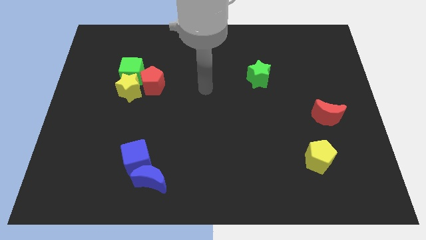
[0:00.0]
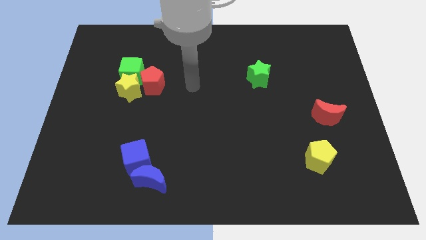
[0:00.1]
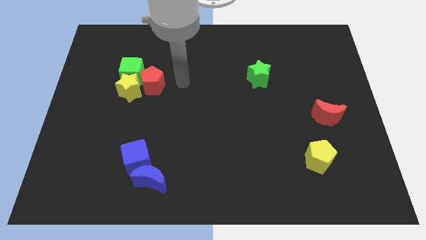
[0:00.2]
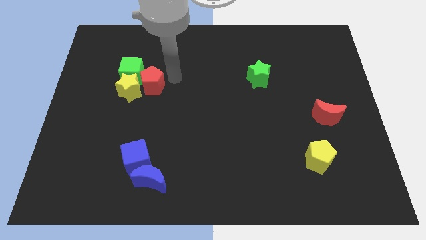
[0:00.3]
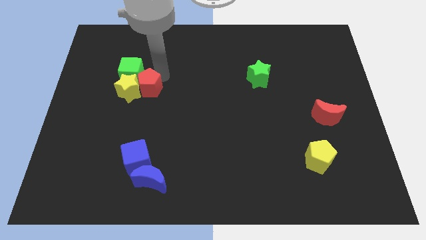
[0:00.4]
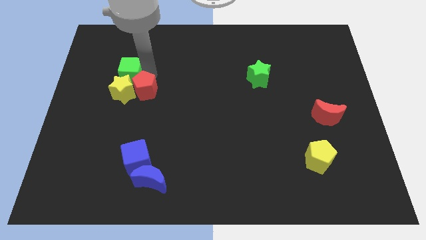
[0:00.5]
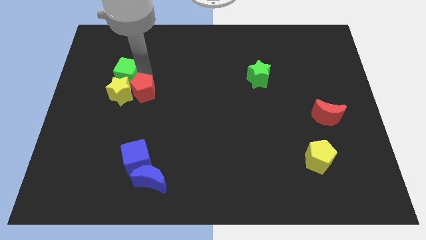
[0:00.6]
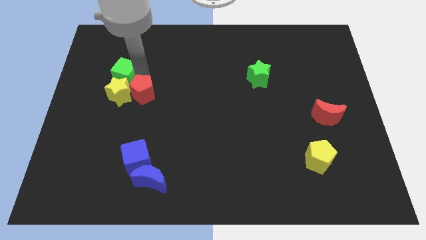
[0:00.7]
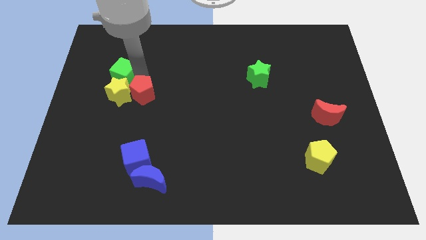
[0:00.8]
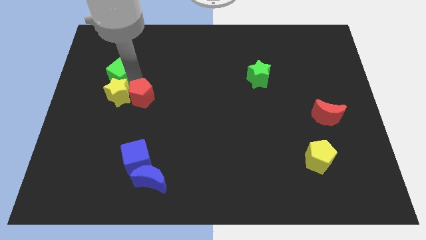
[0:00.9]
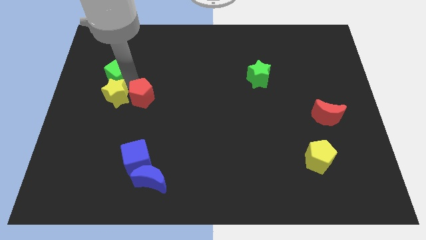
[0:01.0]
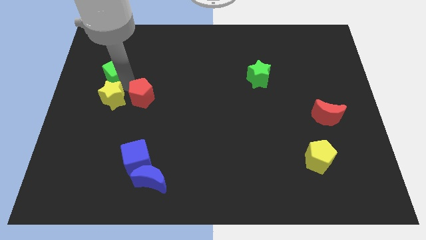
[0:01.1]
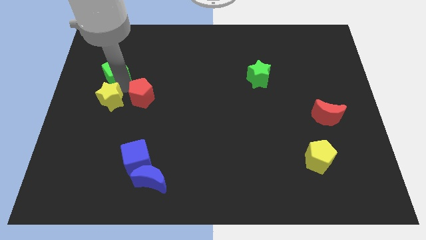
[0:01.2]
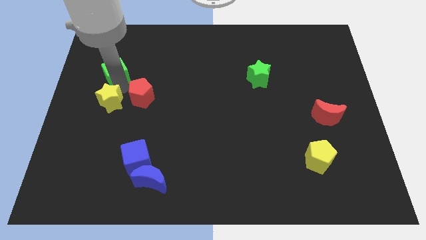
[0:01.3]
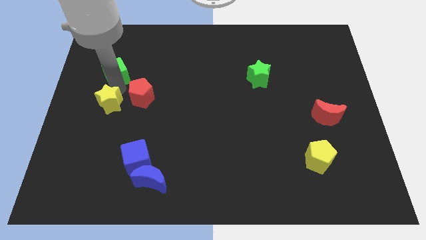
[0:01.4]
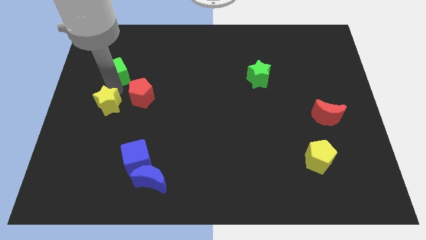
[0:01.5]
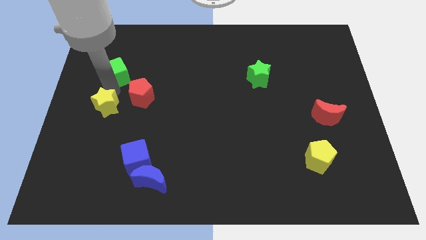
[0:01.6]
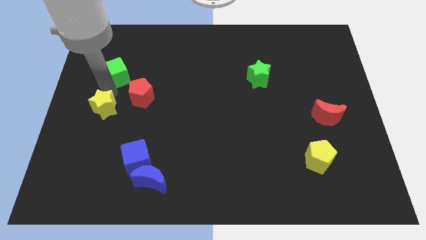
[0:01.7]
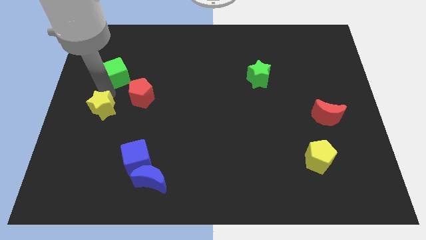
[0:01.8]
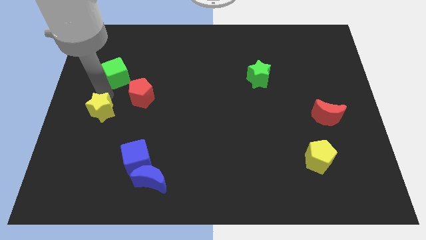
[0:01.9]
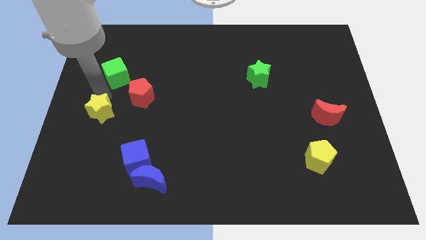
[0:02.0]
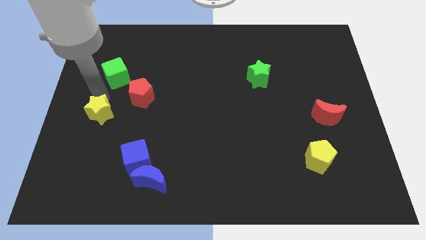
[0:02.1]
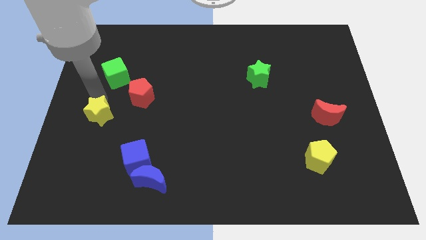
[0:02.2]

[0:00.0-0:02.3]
move the yellow star away from the green cube and red pentagon

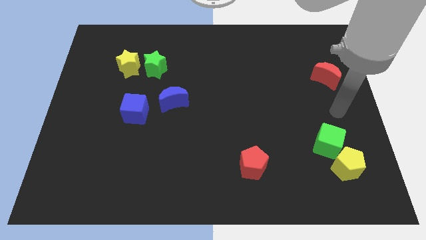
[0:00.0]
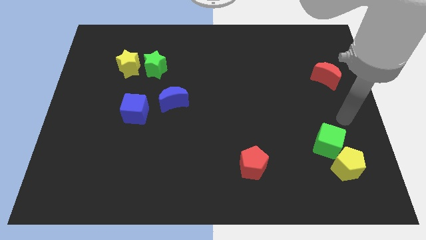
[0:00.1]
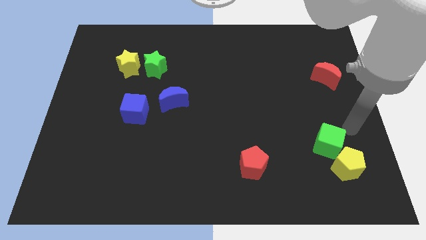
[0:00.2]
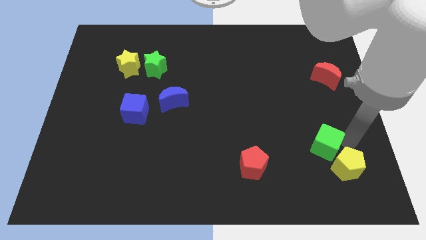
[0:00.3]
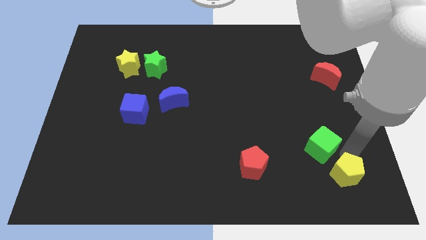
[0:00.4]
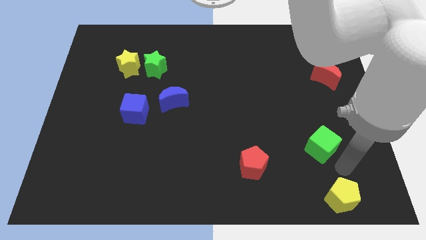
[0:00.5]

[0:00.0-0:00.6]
pull the green cube apart from the yellow pentagon

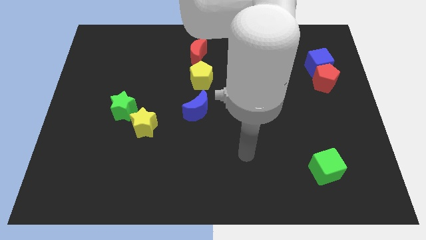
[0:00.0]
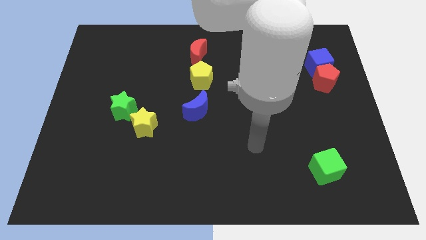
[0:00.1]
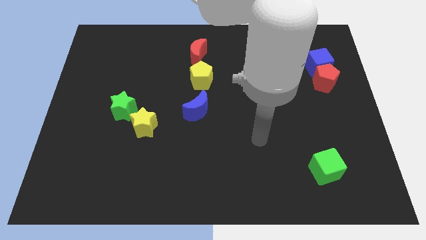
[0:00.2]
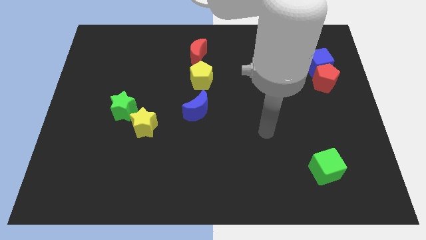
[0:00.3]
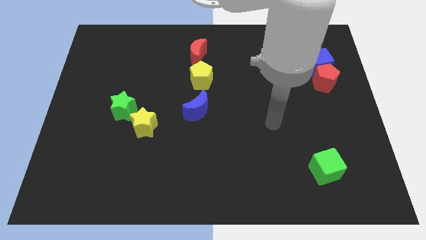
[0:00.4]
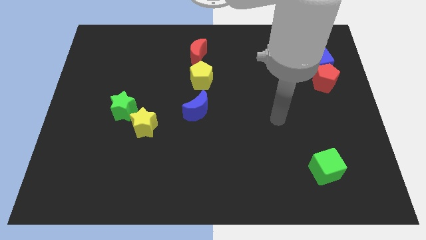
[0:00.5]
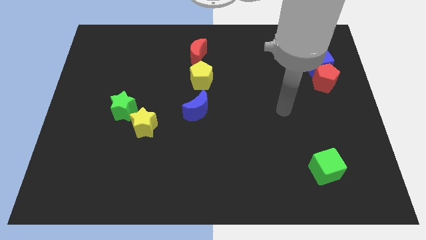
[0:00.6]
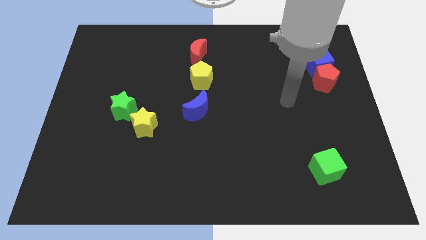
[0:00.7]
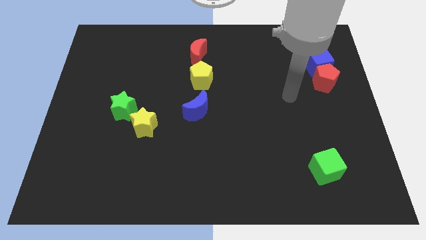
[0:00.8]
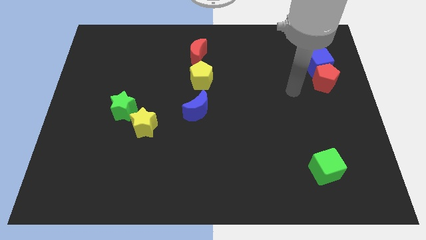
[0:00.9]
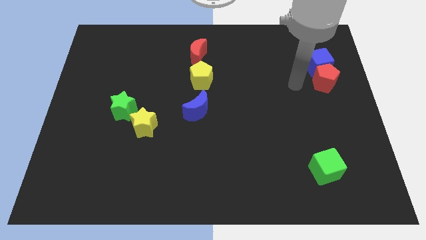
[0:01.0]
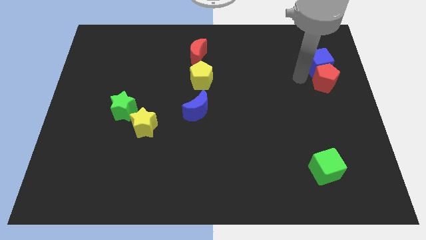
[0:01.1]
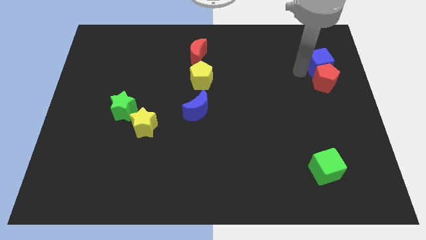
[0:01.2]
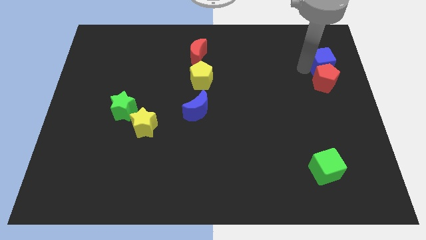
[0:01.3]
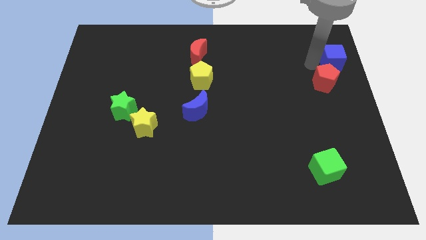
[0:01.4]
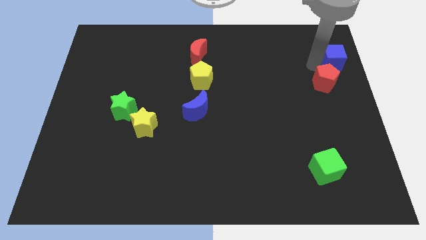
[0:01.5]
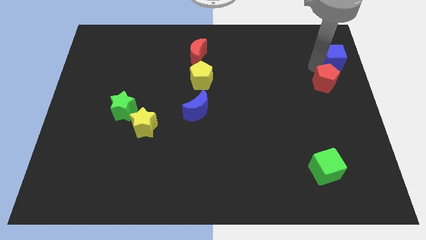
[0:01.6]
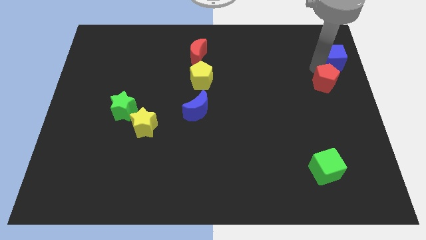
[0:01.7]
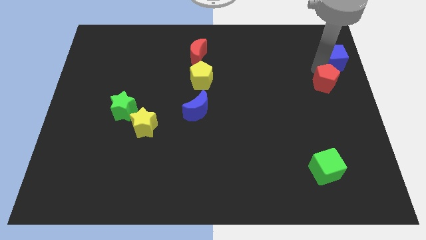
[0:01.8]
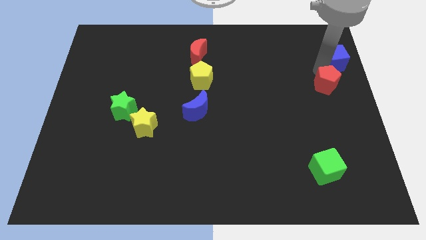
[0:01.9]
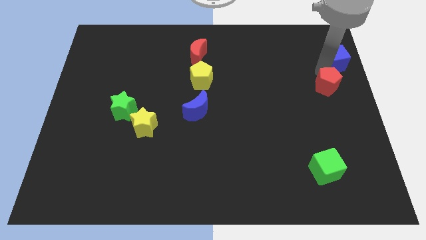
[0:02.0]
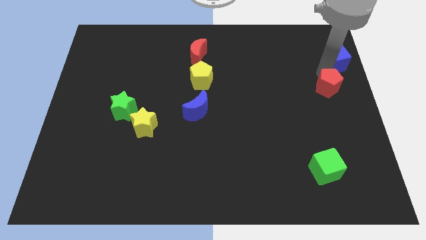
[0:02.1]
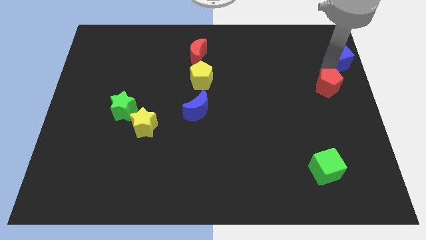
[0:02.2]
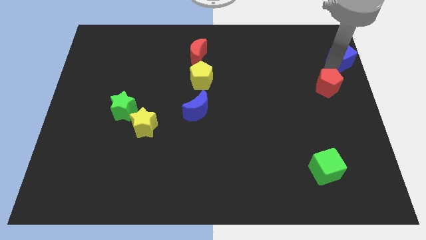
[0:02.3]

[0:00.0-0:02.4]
move the red pentagon away from the blue cube

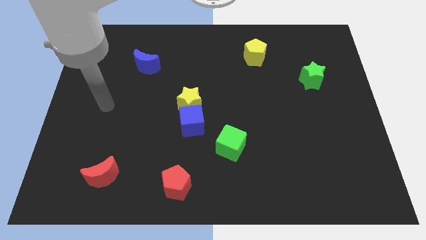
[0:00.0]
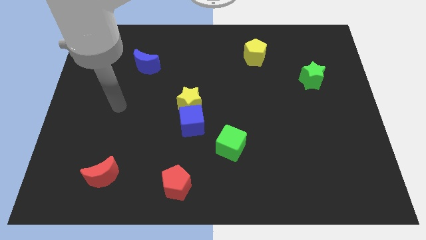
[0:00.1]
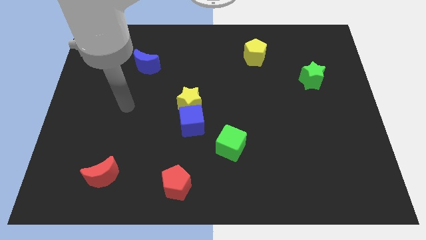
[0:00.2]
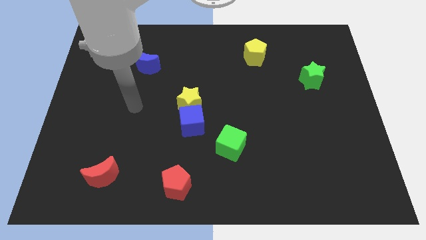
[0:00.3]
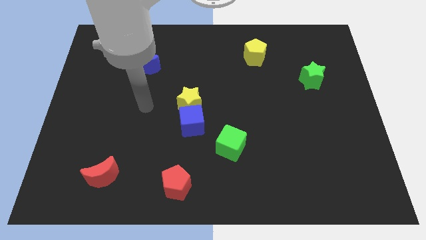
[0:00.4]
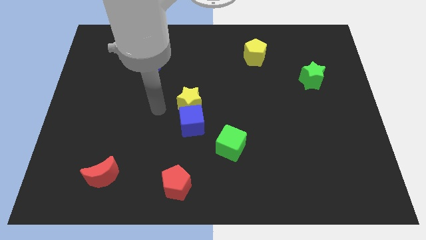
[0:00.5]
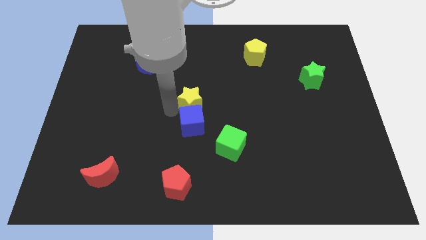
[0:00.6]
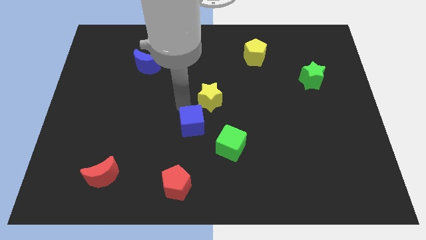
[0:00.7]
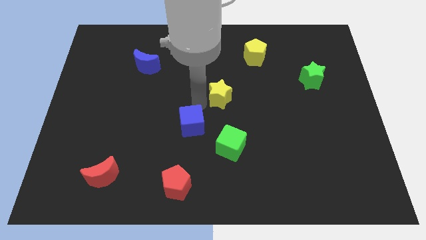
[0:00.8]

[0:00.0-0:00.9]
pull the blue cube apart from the yellow star

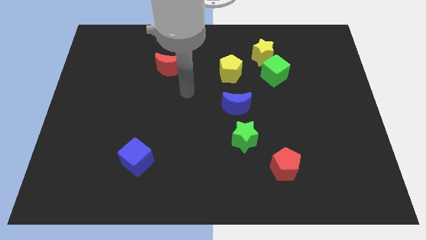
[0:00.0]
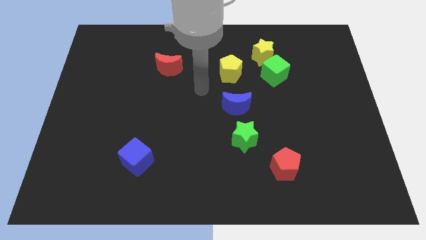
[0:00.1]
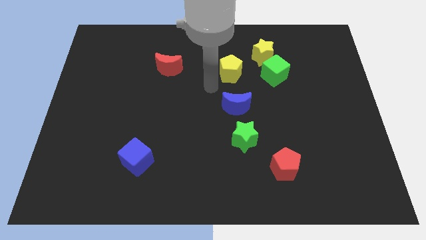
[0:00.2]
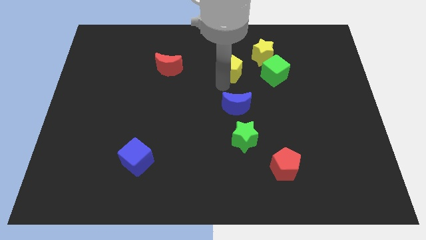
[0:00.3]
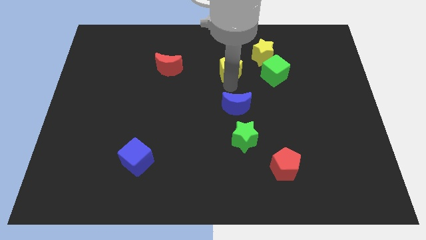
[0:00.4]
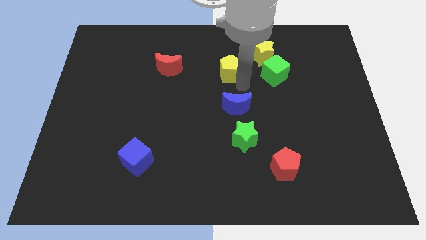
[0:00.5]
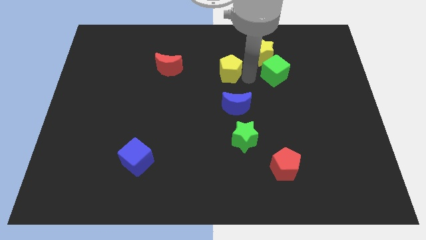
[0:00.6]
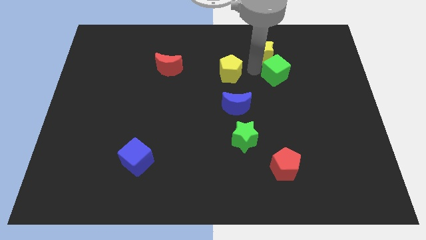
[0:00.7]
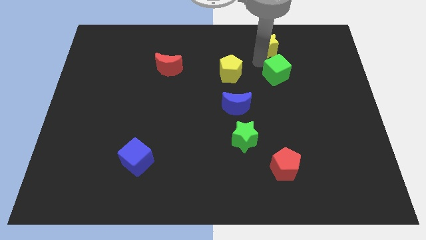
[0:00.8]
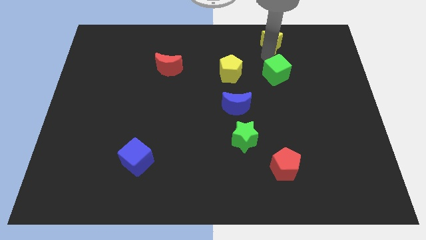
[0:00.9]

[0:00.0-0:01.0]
move the green cube away from the yellow star

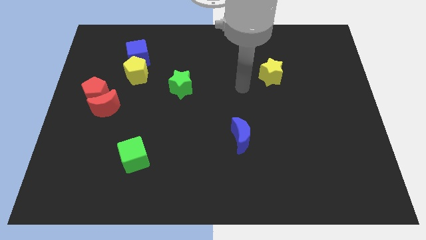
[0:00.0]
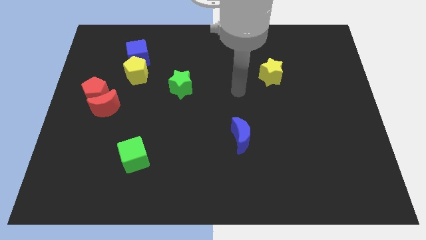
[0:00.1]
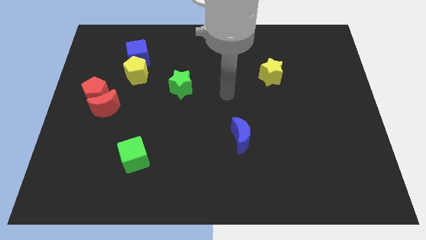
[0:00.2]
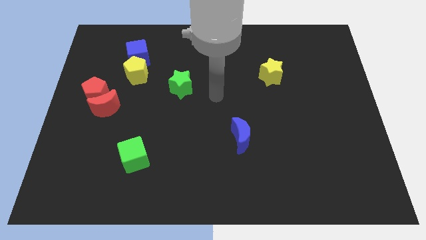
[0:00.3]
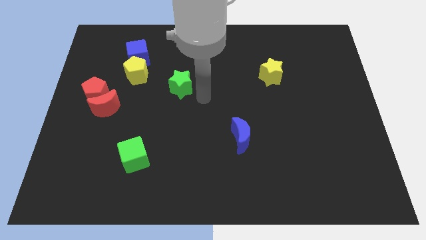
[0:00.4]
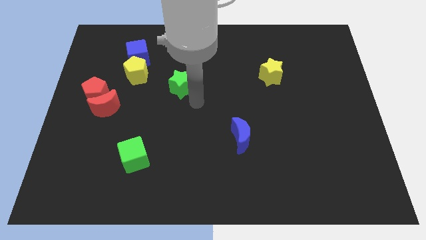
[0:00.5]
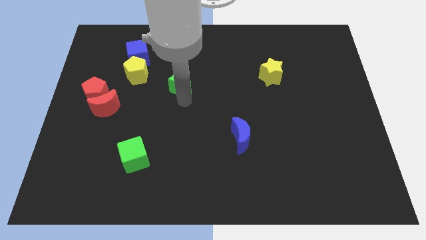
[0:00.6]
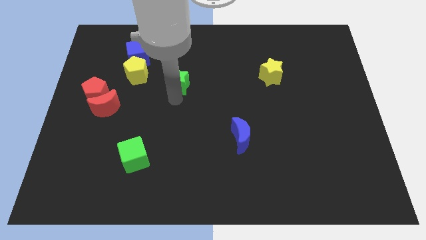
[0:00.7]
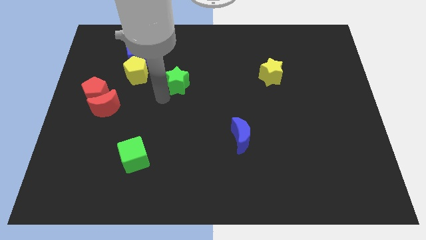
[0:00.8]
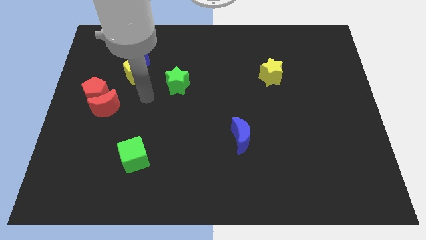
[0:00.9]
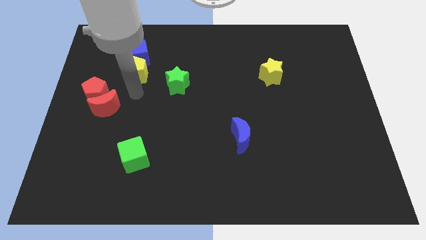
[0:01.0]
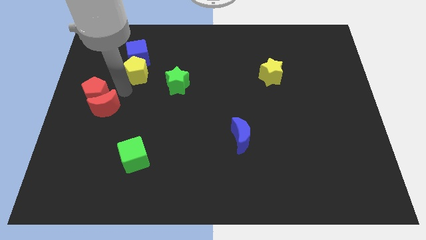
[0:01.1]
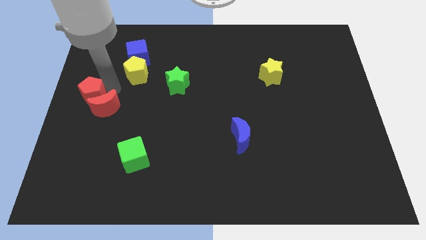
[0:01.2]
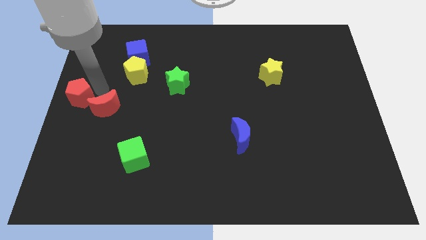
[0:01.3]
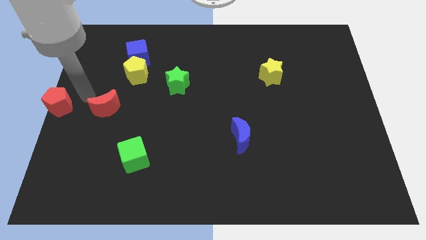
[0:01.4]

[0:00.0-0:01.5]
separate the red moon from the red pentagon

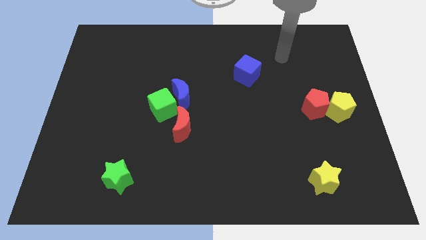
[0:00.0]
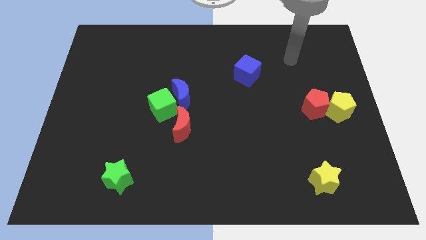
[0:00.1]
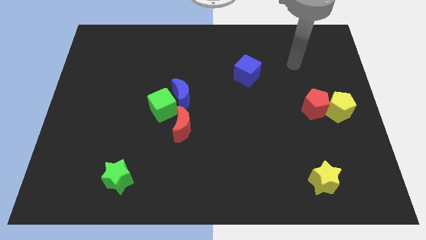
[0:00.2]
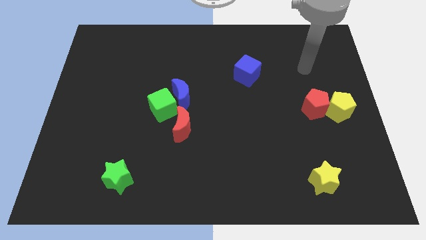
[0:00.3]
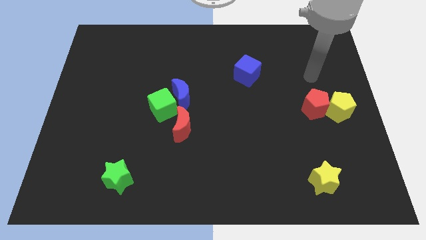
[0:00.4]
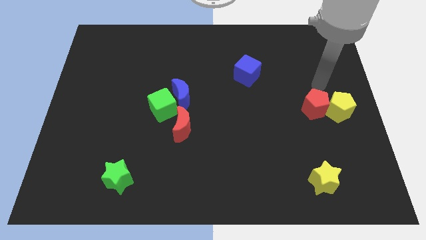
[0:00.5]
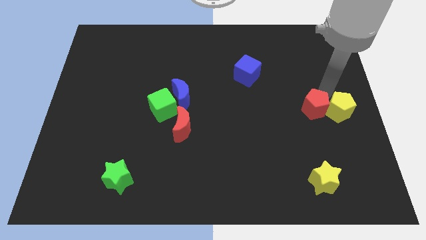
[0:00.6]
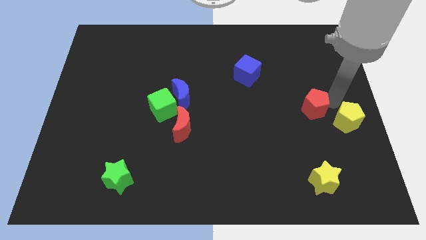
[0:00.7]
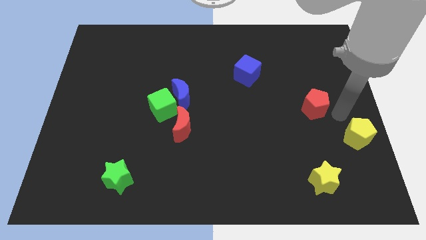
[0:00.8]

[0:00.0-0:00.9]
separate the red pentagon from the yellow pentagon
